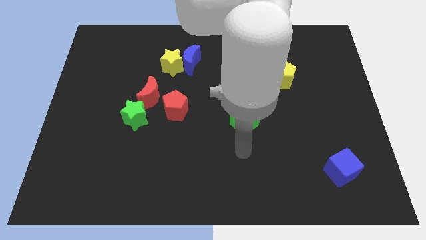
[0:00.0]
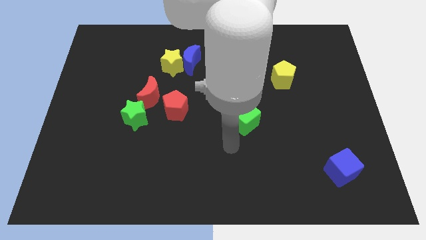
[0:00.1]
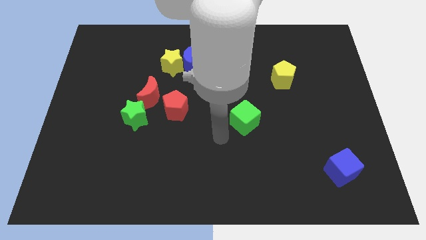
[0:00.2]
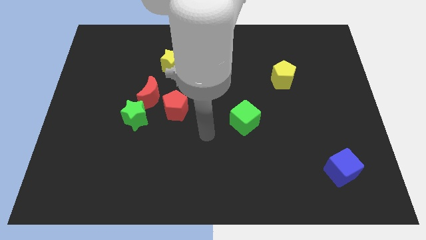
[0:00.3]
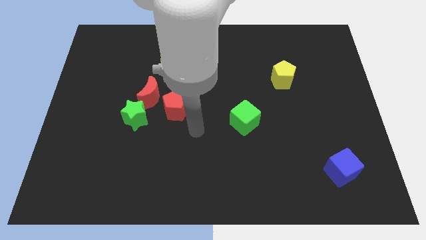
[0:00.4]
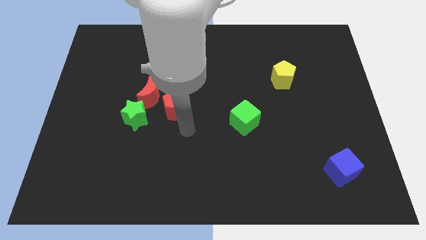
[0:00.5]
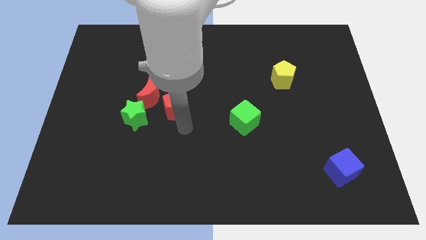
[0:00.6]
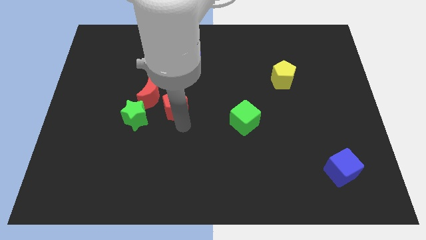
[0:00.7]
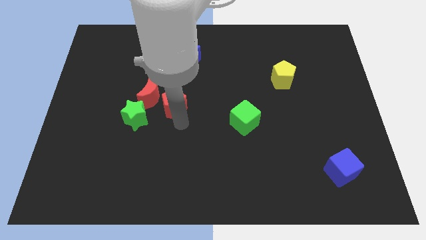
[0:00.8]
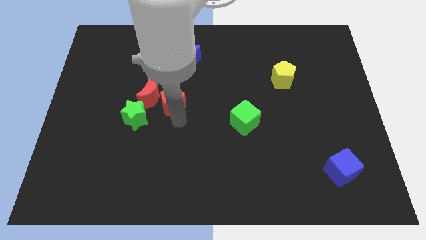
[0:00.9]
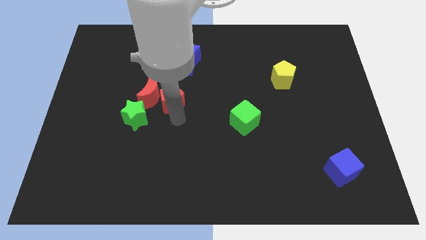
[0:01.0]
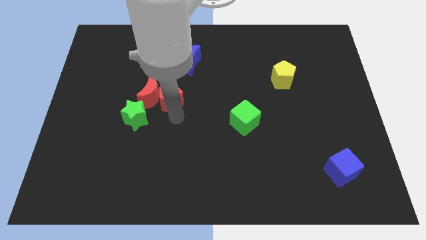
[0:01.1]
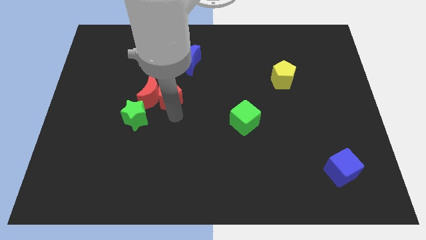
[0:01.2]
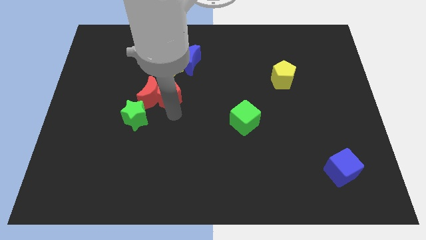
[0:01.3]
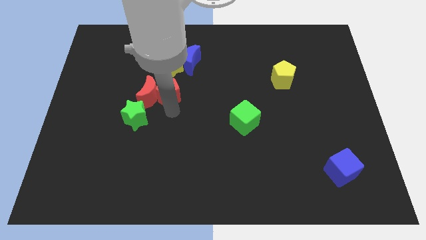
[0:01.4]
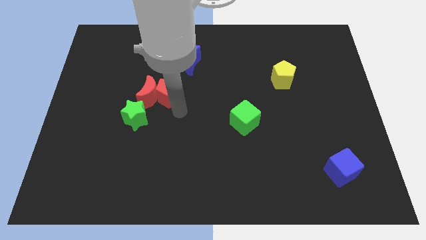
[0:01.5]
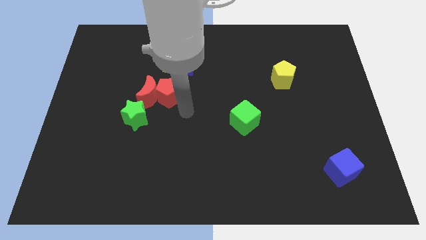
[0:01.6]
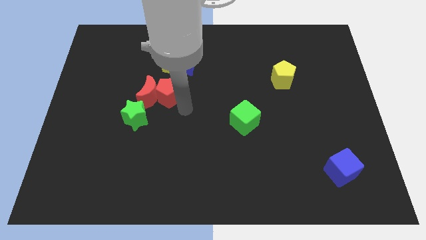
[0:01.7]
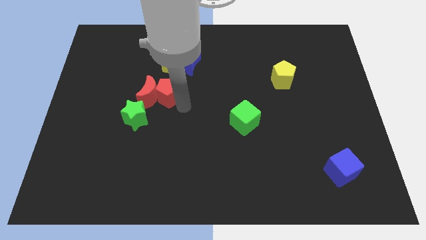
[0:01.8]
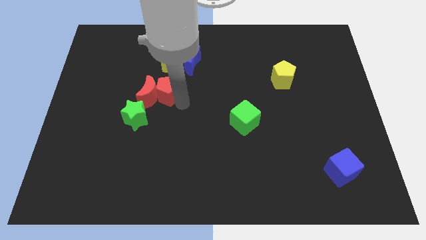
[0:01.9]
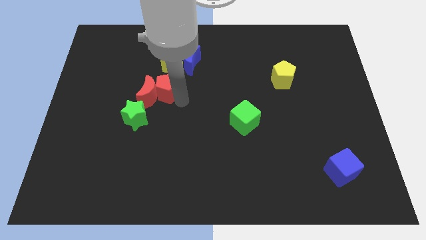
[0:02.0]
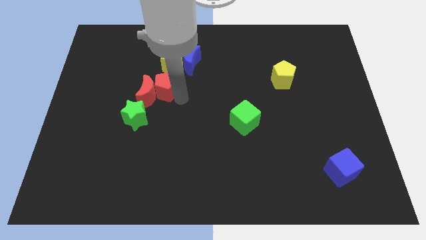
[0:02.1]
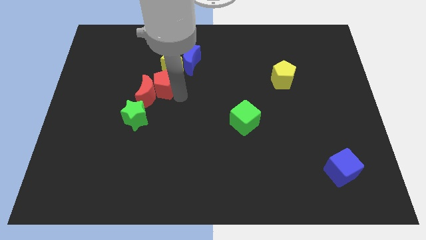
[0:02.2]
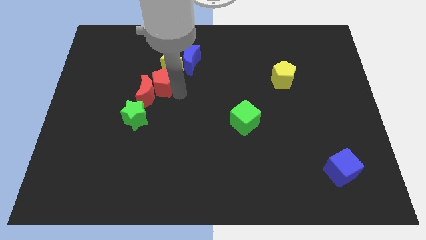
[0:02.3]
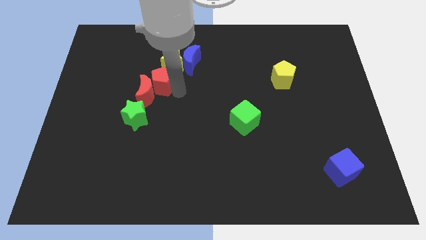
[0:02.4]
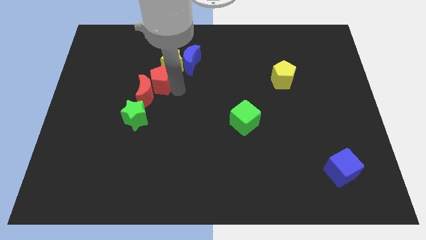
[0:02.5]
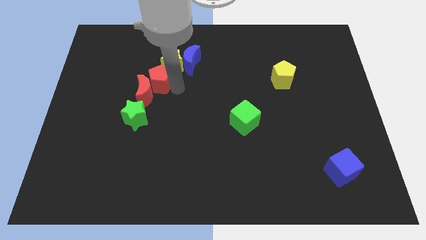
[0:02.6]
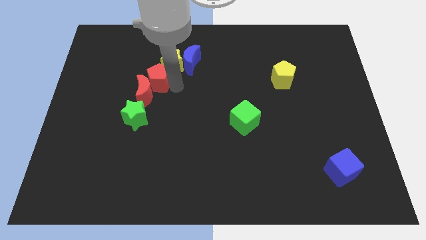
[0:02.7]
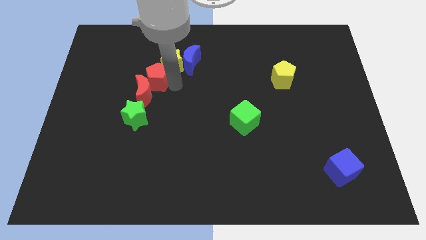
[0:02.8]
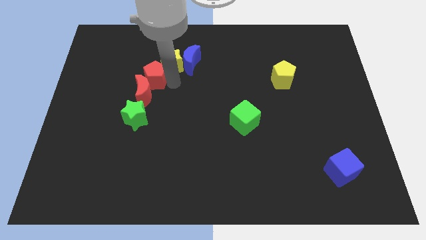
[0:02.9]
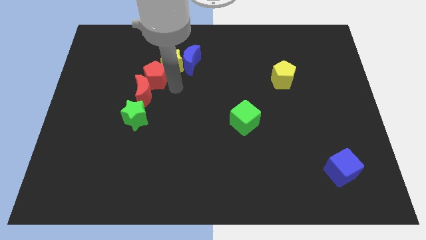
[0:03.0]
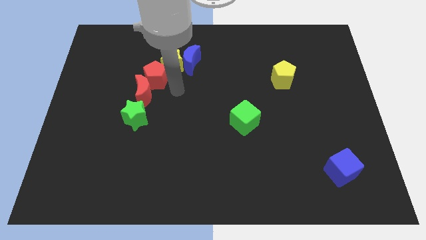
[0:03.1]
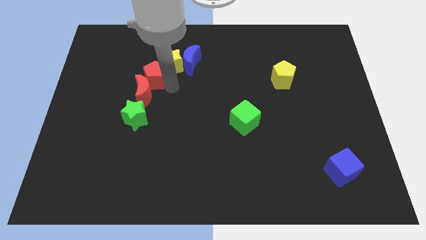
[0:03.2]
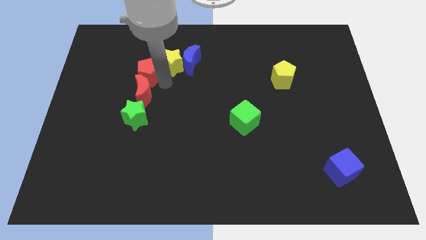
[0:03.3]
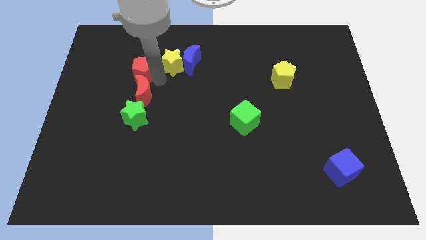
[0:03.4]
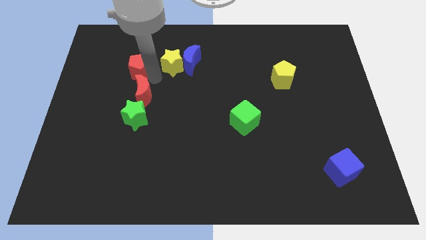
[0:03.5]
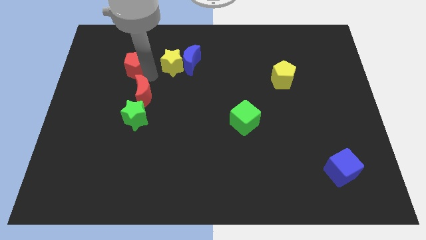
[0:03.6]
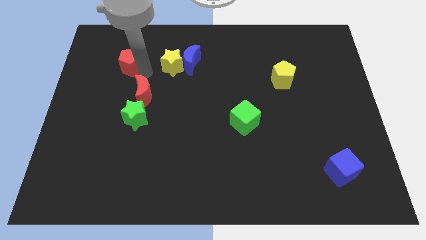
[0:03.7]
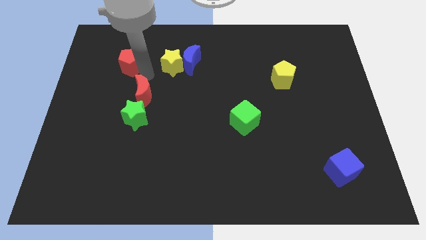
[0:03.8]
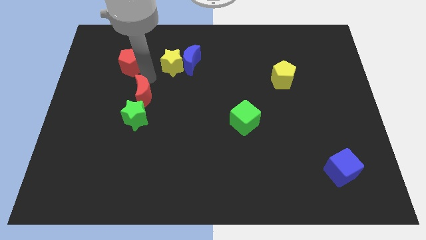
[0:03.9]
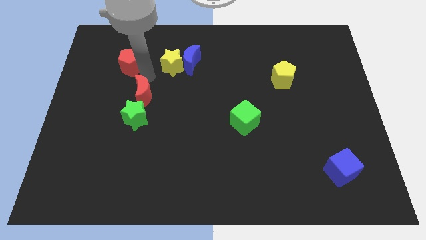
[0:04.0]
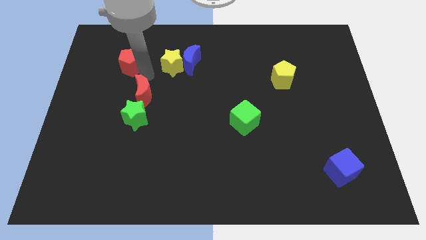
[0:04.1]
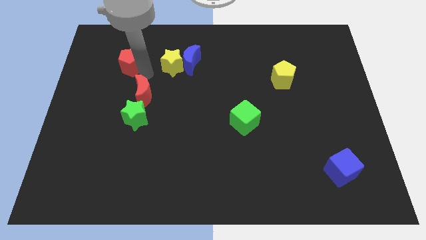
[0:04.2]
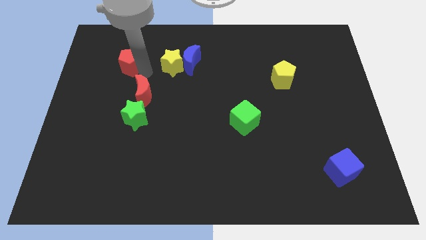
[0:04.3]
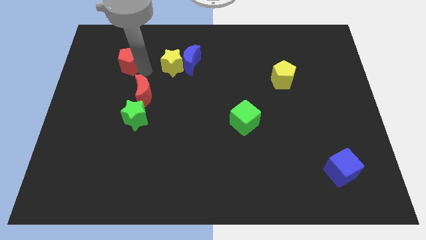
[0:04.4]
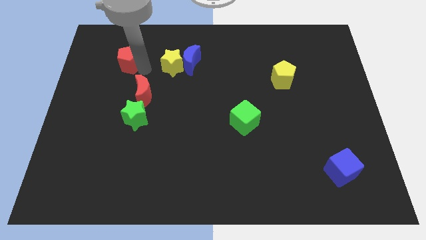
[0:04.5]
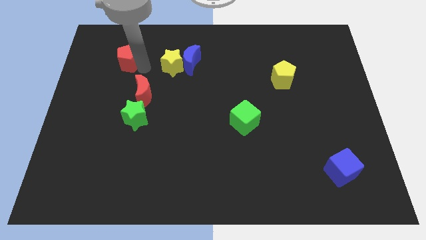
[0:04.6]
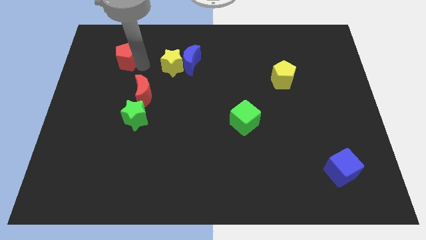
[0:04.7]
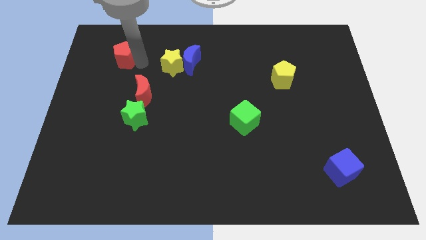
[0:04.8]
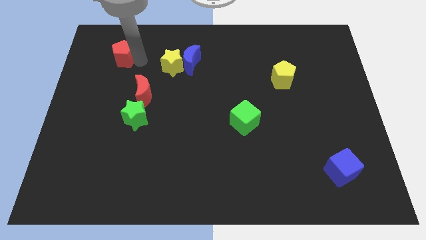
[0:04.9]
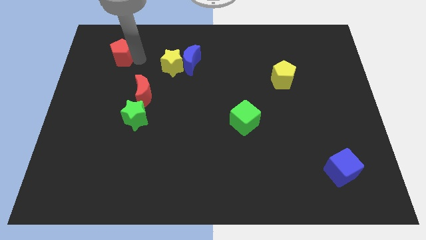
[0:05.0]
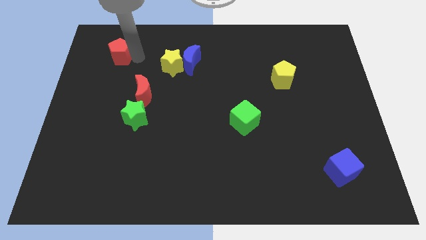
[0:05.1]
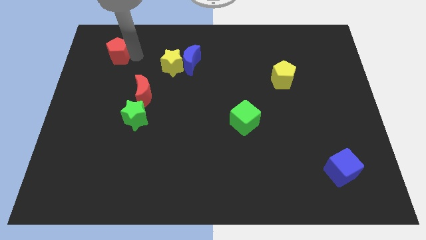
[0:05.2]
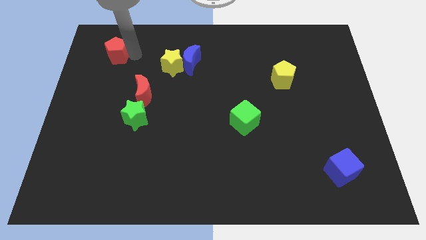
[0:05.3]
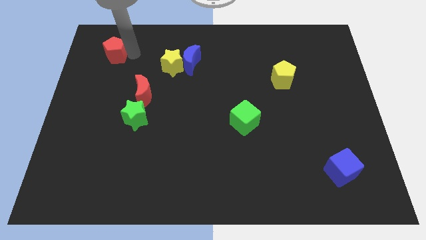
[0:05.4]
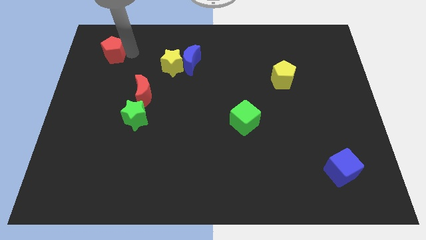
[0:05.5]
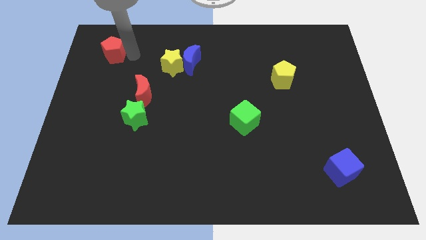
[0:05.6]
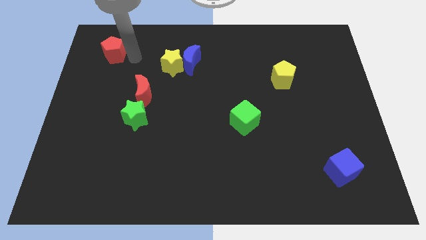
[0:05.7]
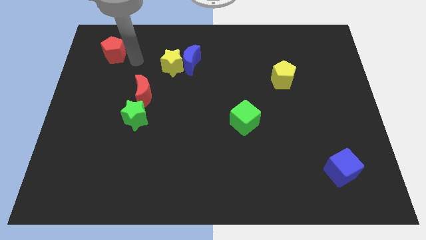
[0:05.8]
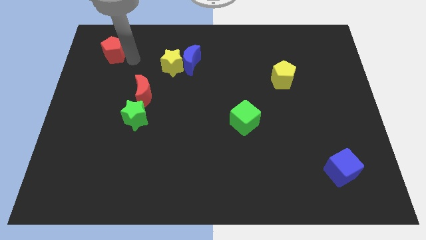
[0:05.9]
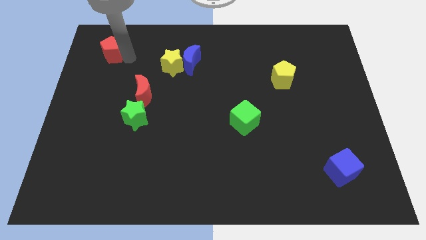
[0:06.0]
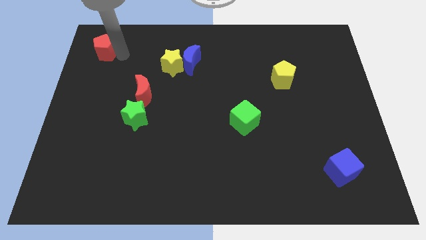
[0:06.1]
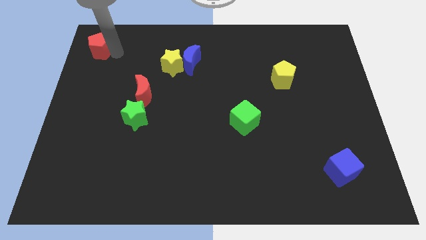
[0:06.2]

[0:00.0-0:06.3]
put the red pentagon to the upper left corner

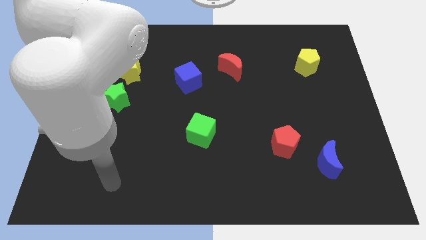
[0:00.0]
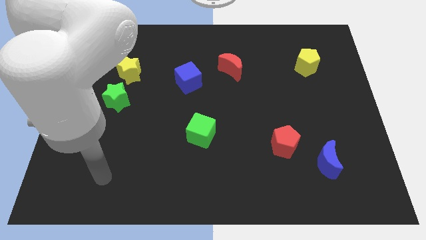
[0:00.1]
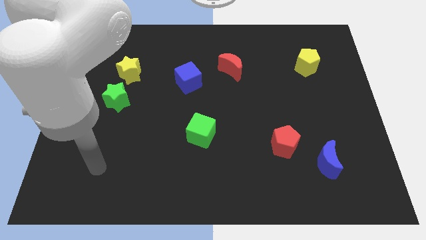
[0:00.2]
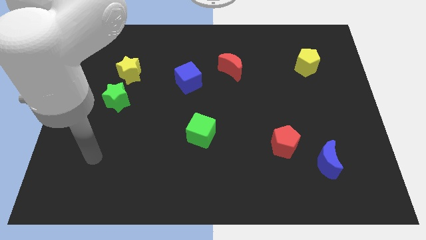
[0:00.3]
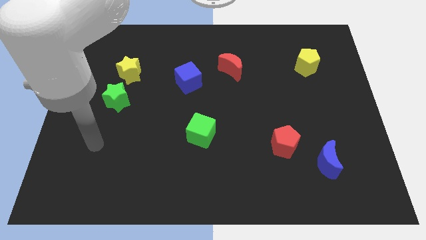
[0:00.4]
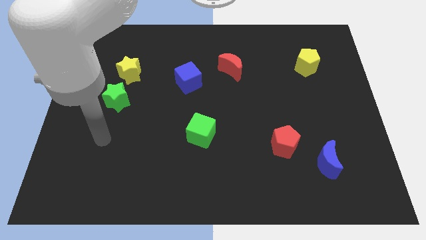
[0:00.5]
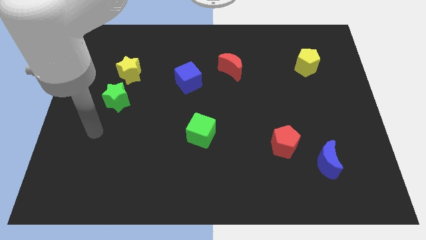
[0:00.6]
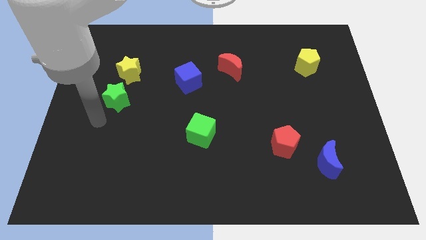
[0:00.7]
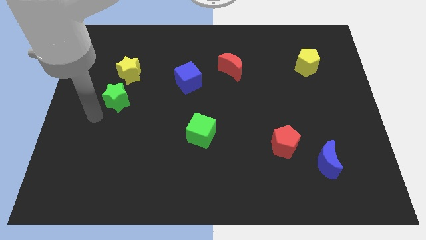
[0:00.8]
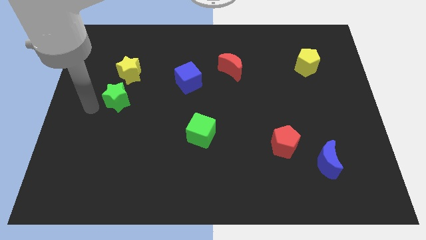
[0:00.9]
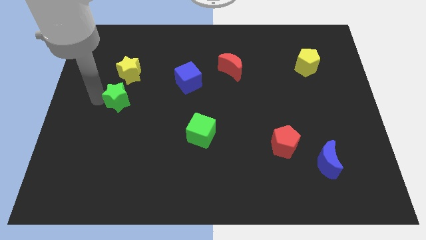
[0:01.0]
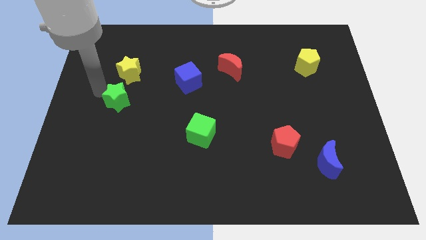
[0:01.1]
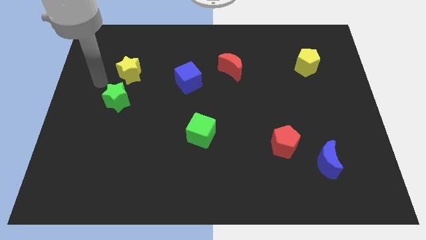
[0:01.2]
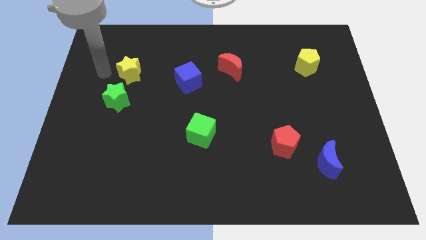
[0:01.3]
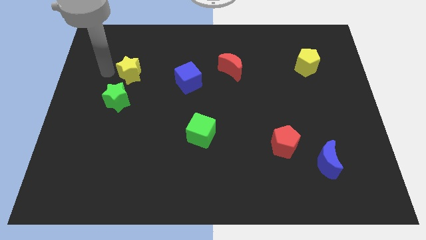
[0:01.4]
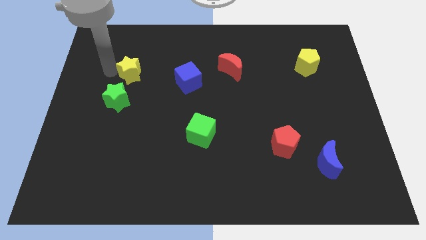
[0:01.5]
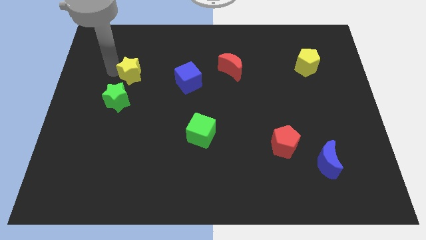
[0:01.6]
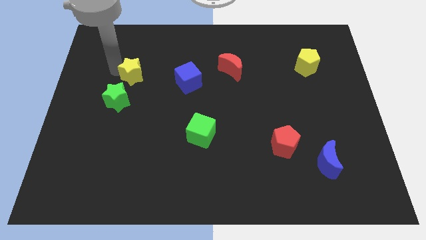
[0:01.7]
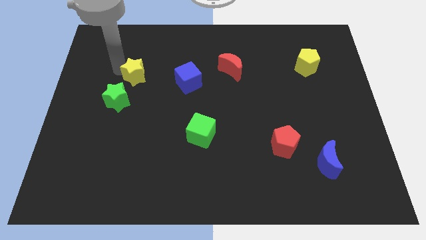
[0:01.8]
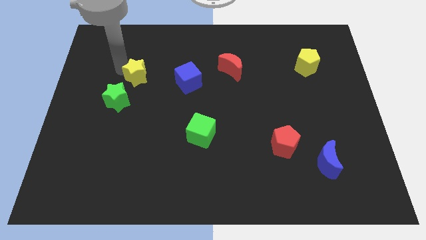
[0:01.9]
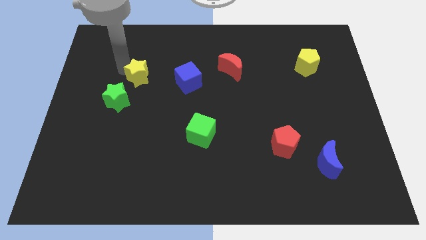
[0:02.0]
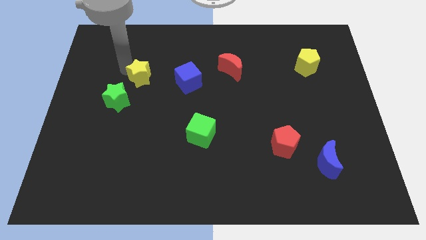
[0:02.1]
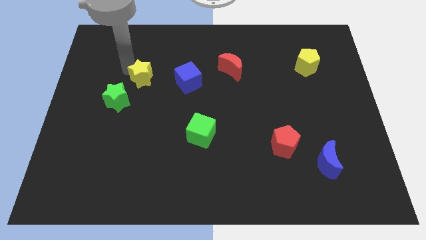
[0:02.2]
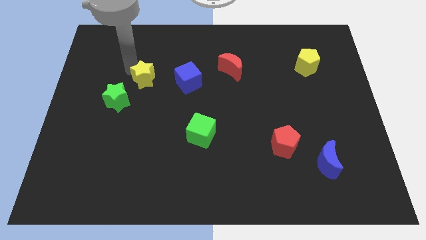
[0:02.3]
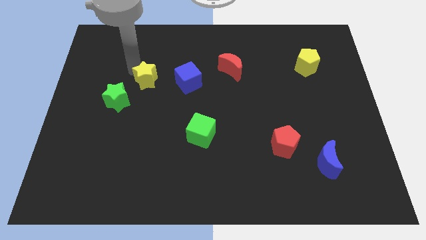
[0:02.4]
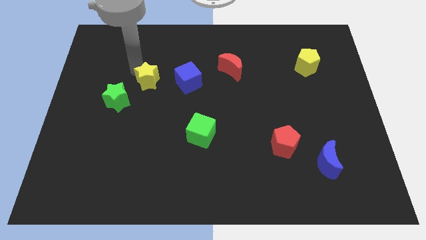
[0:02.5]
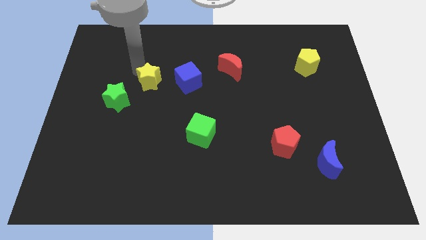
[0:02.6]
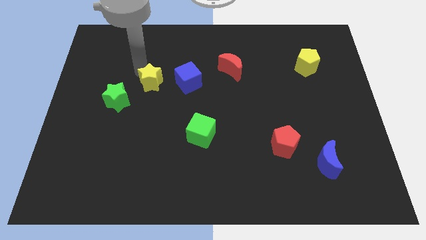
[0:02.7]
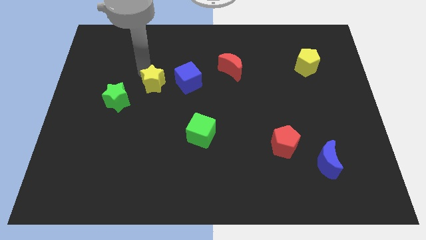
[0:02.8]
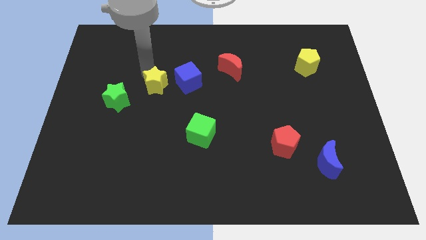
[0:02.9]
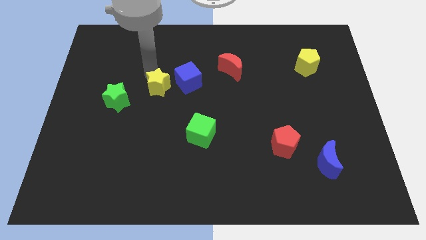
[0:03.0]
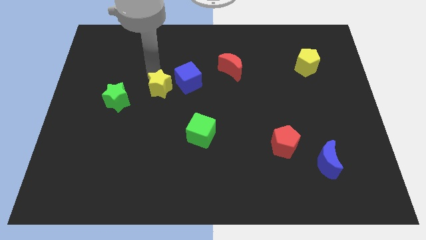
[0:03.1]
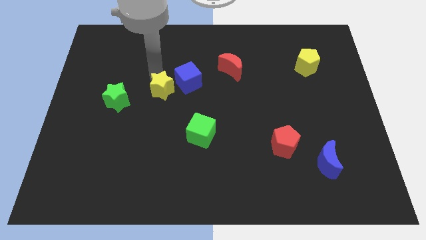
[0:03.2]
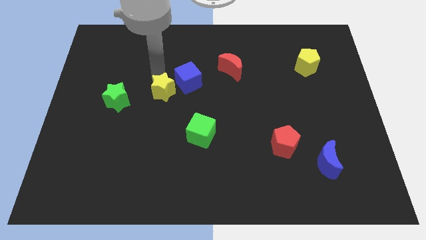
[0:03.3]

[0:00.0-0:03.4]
push the yellow star to the center
